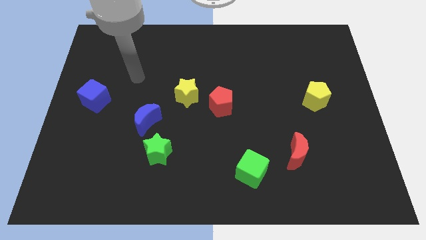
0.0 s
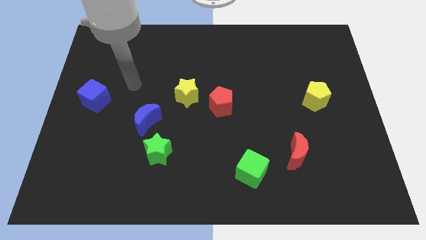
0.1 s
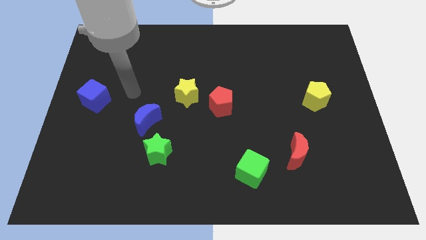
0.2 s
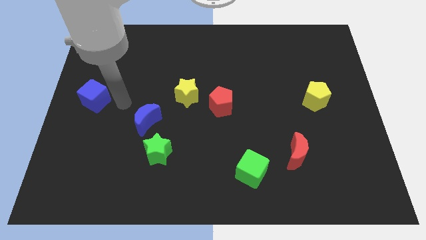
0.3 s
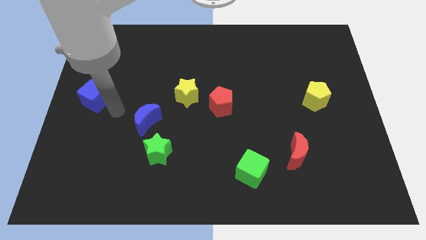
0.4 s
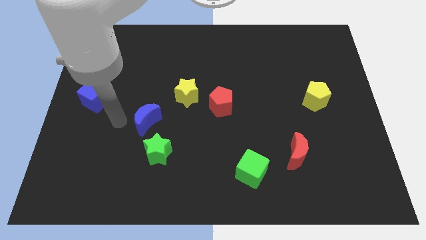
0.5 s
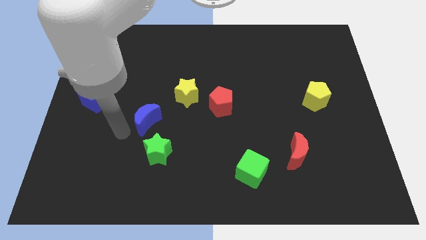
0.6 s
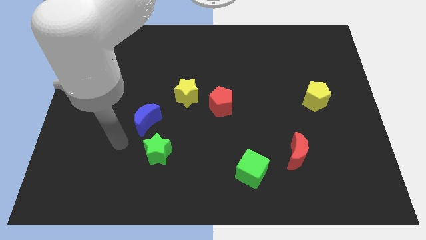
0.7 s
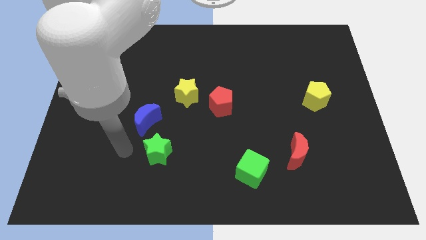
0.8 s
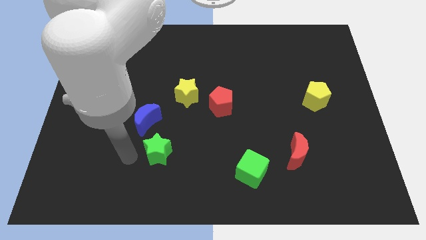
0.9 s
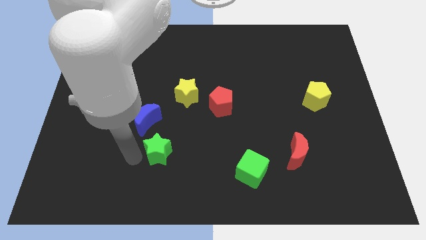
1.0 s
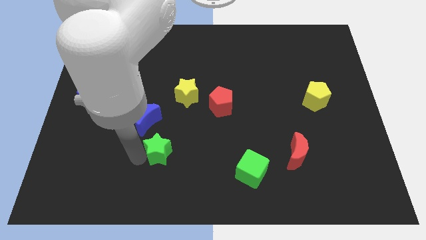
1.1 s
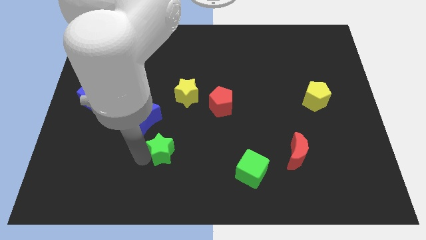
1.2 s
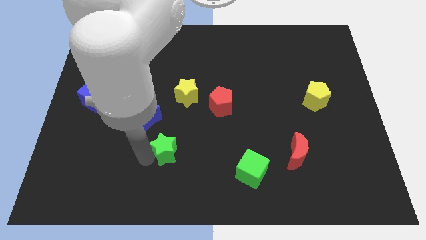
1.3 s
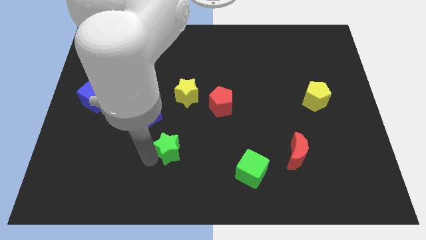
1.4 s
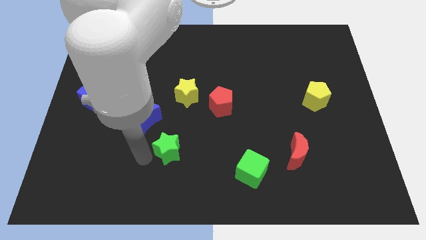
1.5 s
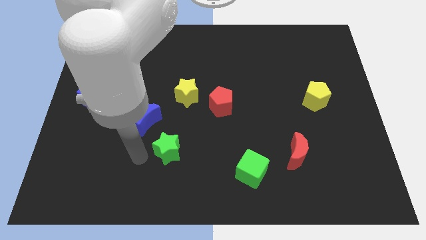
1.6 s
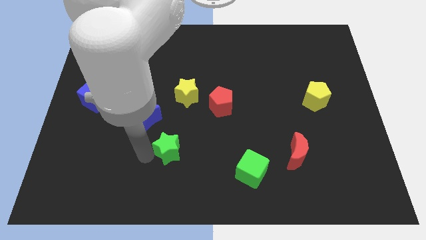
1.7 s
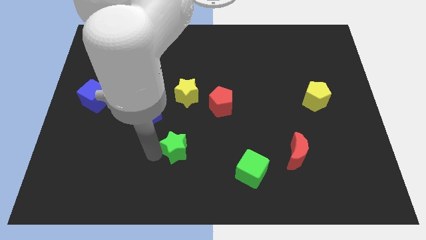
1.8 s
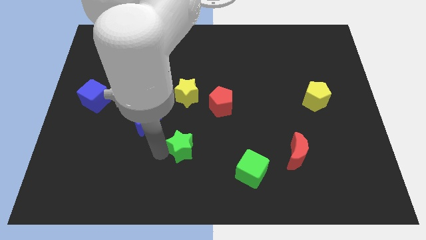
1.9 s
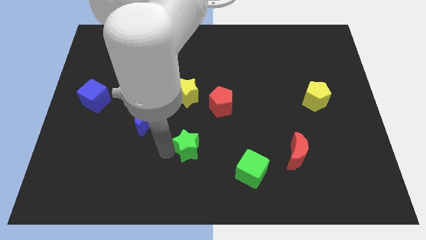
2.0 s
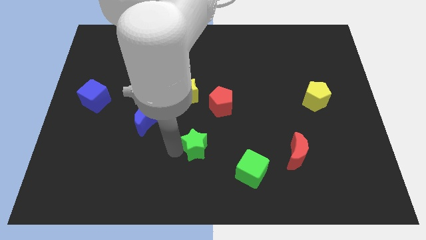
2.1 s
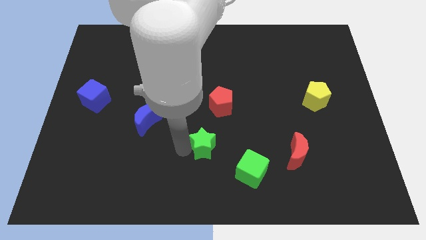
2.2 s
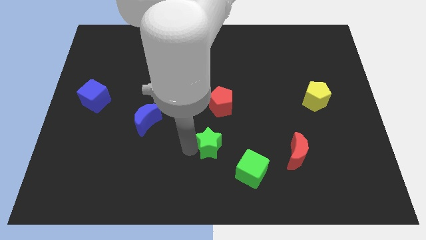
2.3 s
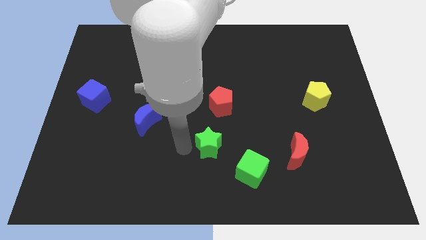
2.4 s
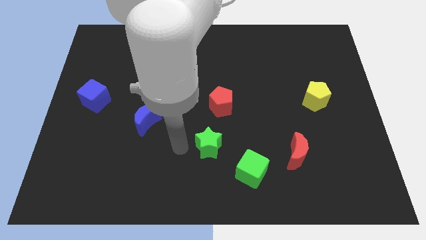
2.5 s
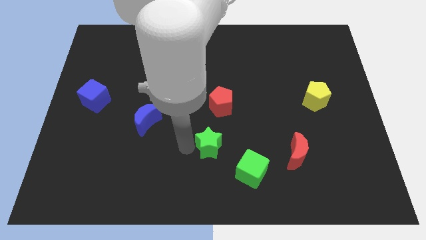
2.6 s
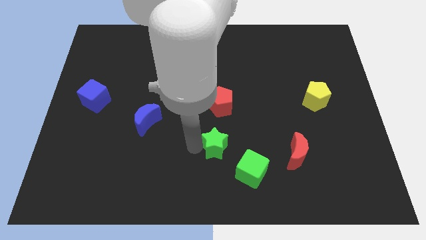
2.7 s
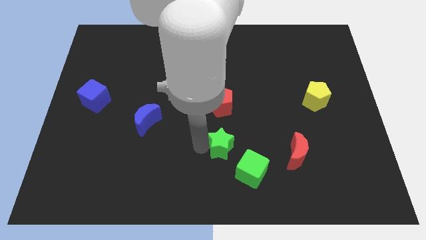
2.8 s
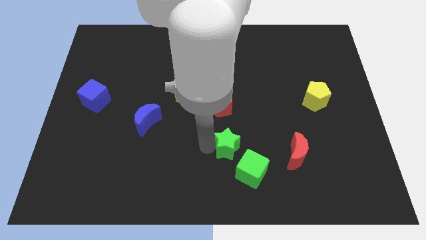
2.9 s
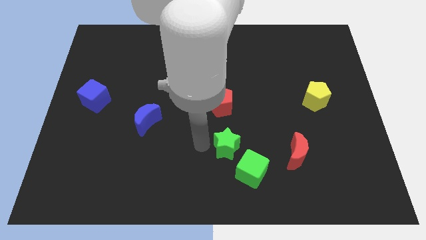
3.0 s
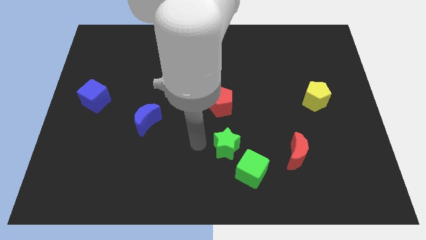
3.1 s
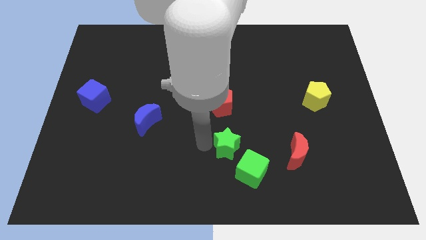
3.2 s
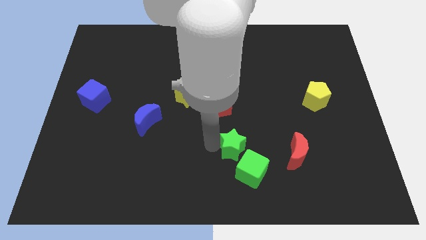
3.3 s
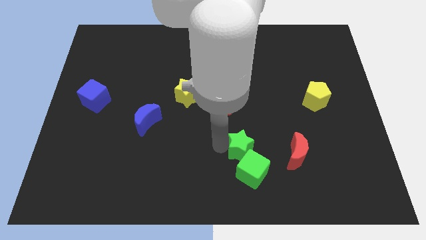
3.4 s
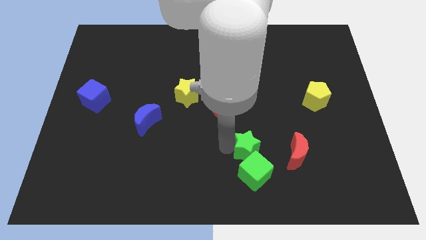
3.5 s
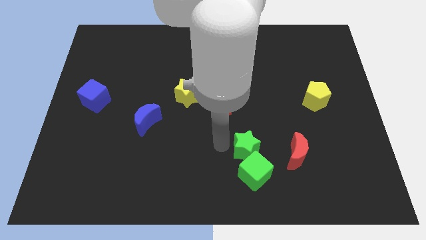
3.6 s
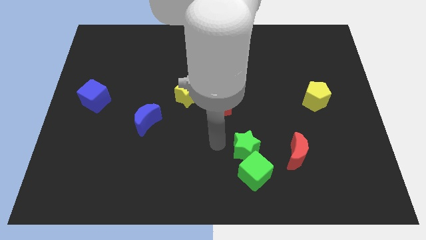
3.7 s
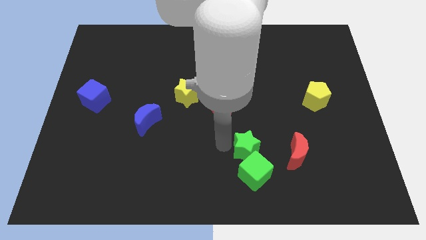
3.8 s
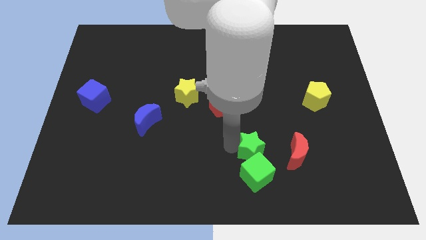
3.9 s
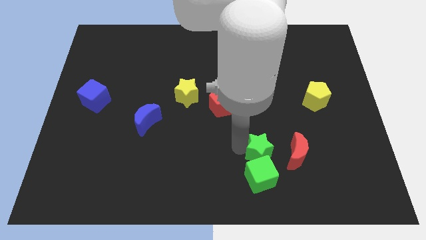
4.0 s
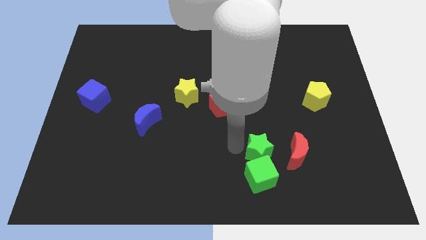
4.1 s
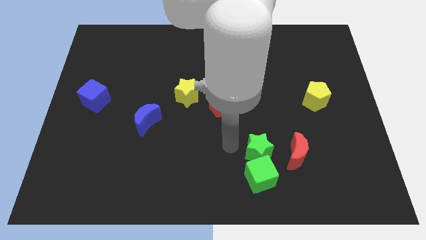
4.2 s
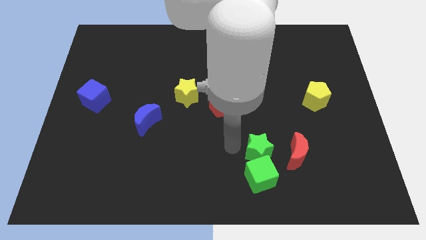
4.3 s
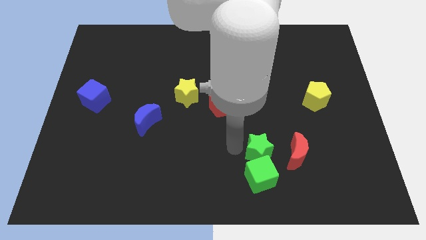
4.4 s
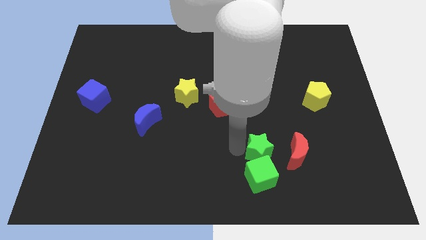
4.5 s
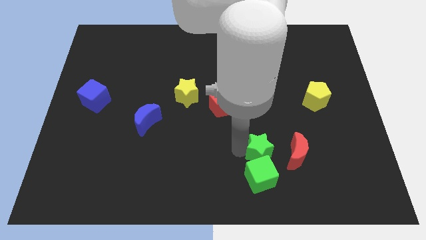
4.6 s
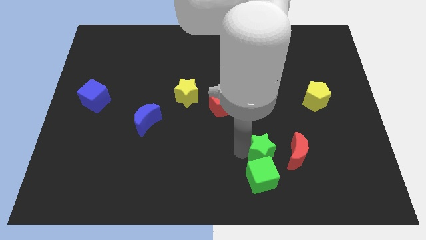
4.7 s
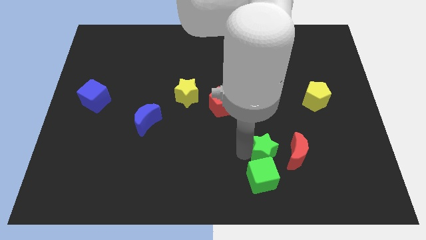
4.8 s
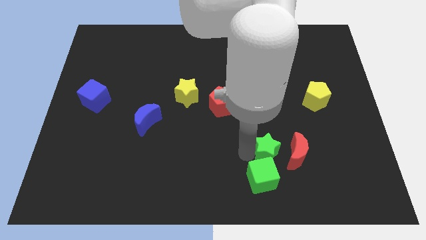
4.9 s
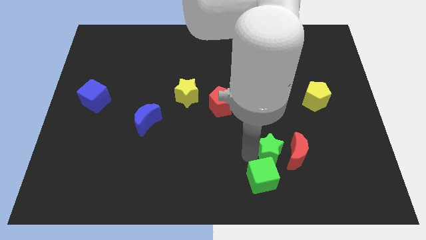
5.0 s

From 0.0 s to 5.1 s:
move the green star close to the red moon

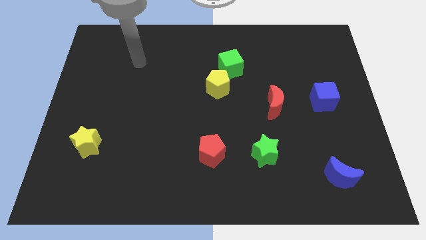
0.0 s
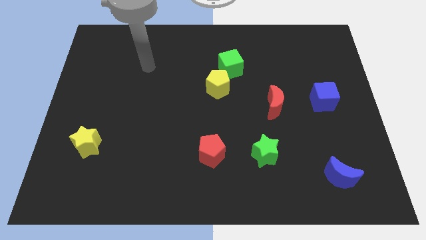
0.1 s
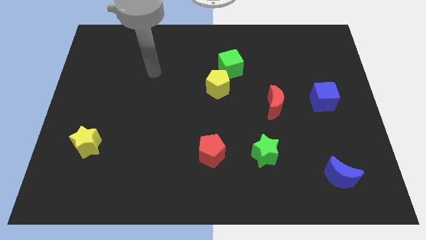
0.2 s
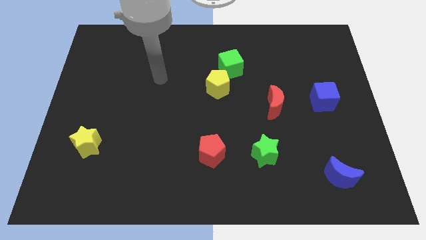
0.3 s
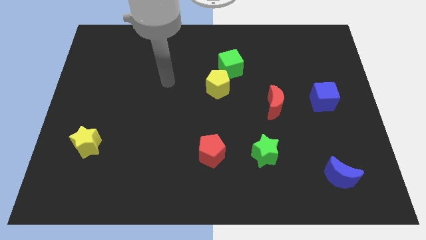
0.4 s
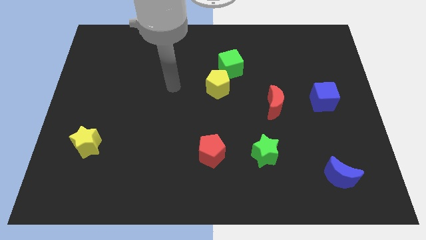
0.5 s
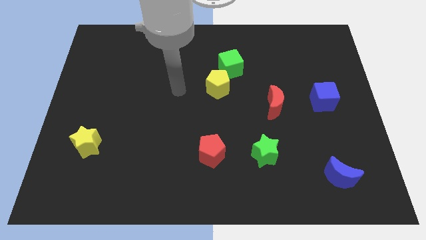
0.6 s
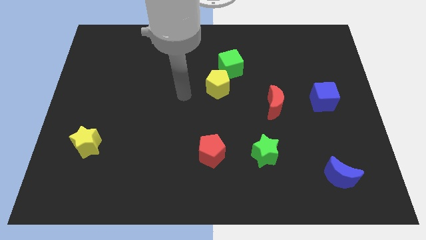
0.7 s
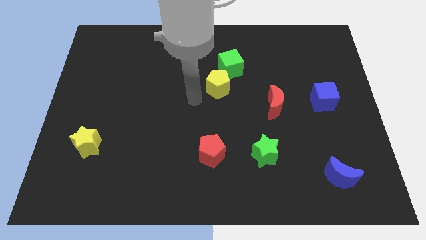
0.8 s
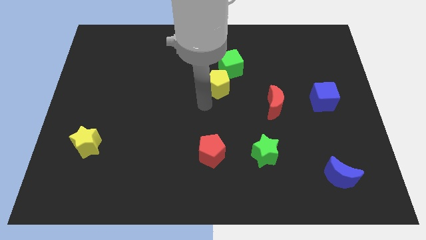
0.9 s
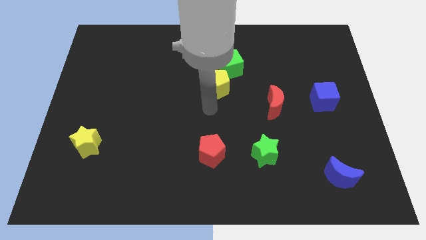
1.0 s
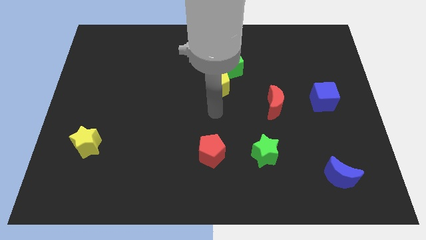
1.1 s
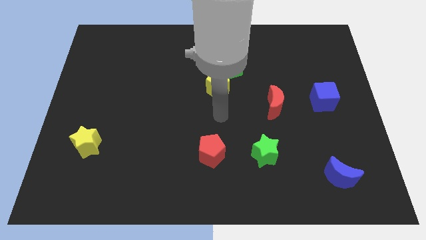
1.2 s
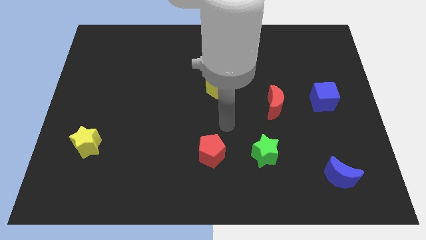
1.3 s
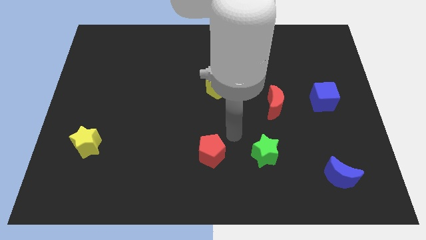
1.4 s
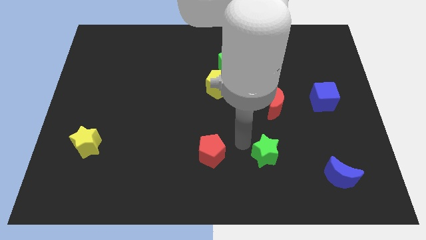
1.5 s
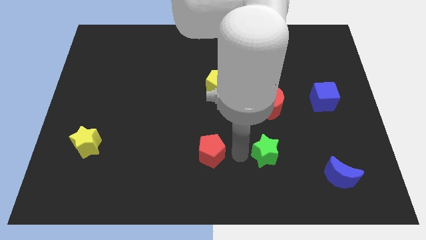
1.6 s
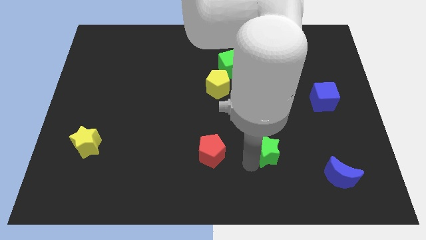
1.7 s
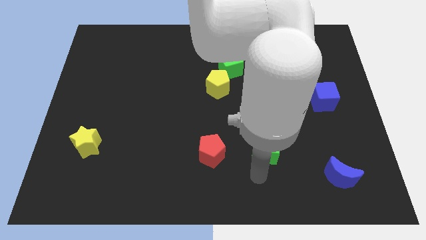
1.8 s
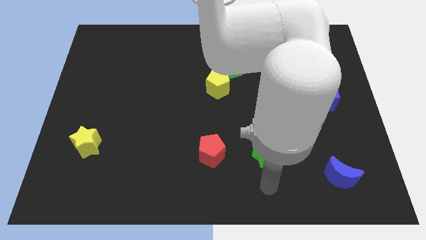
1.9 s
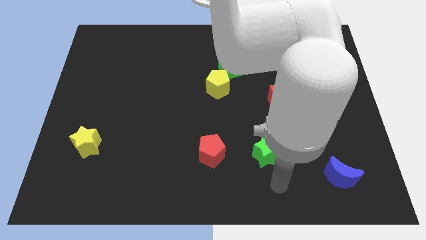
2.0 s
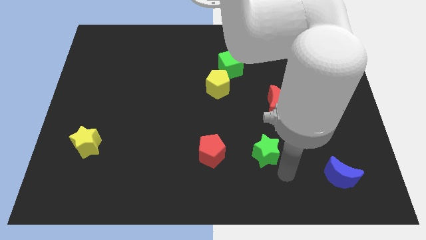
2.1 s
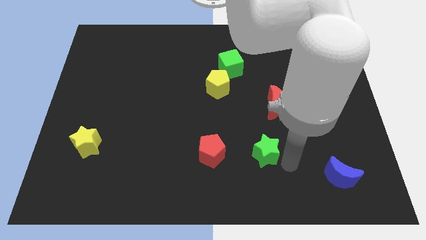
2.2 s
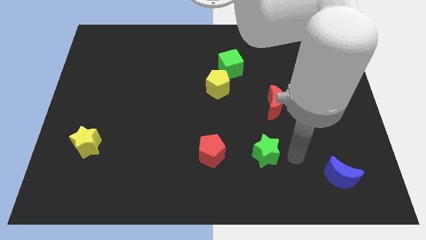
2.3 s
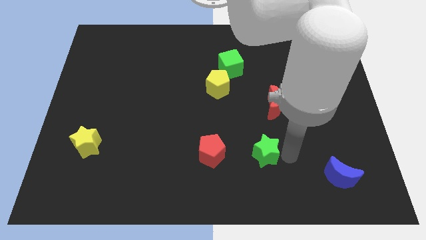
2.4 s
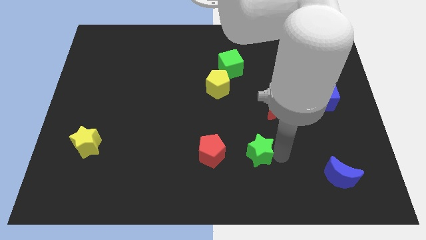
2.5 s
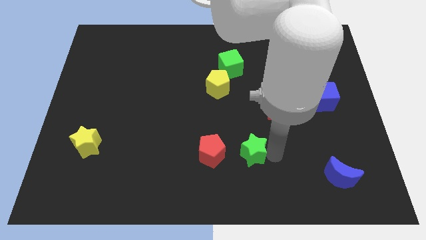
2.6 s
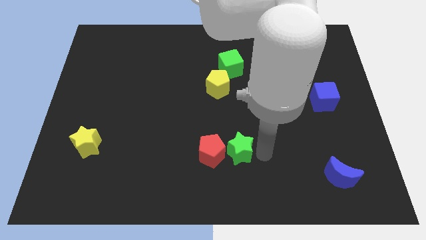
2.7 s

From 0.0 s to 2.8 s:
put the green star next to the red pentagon
